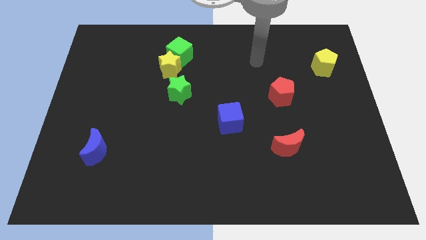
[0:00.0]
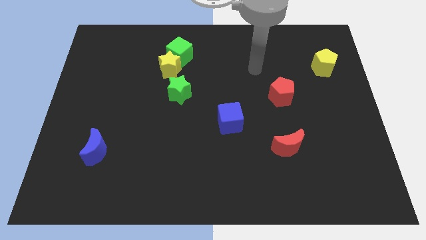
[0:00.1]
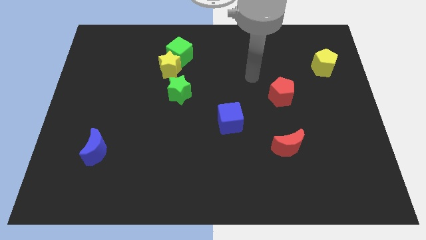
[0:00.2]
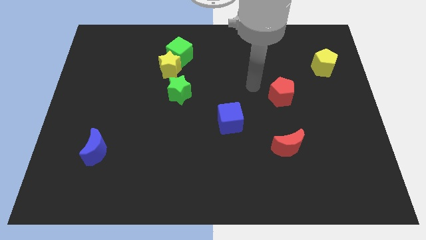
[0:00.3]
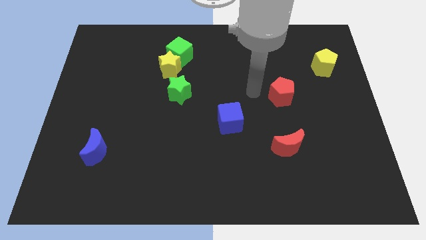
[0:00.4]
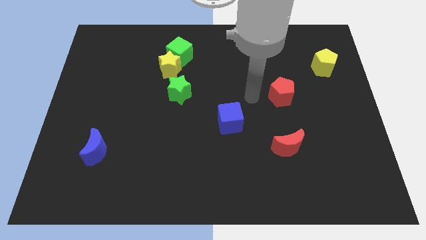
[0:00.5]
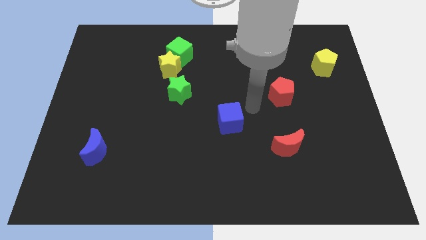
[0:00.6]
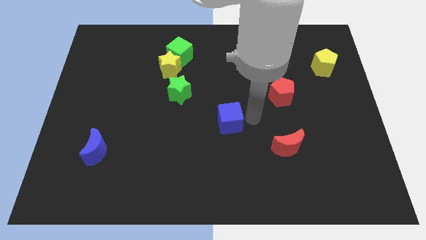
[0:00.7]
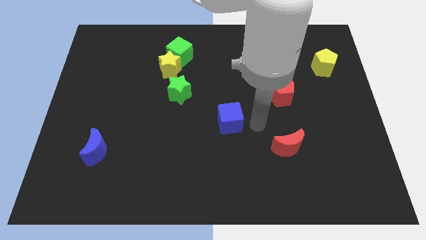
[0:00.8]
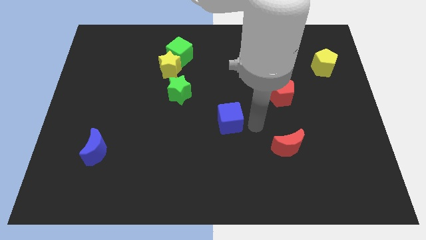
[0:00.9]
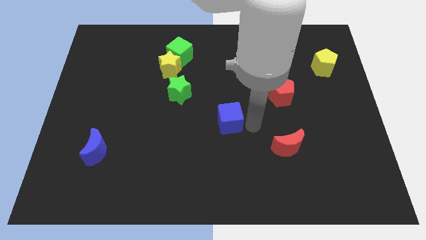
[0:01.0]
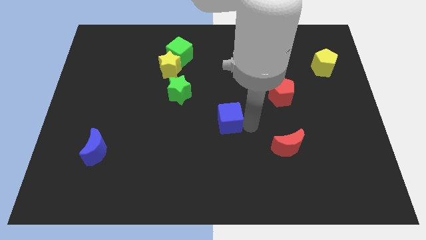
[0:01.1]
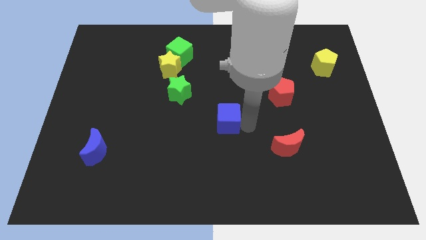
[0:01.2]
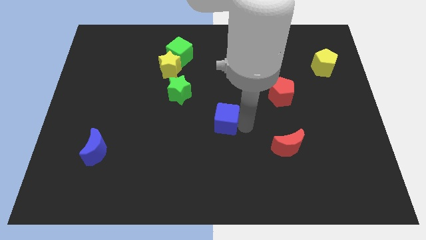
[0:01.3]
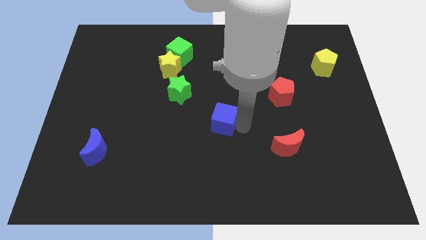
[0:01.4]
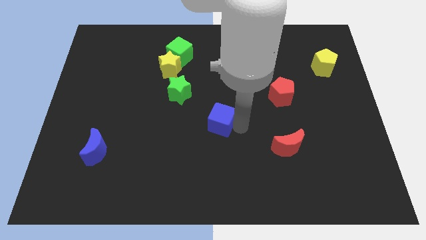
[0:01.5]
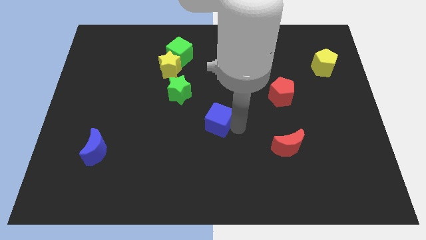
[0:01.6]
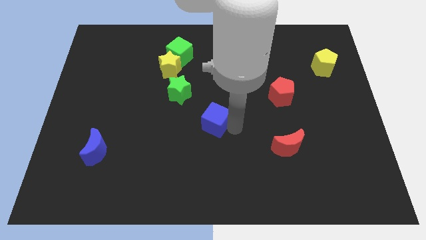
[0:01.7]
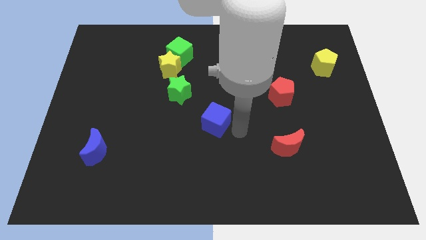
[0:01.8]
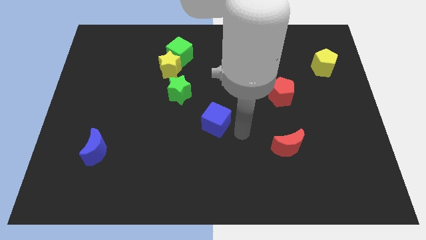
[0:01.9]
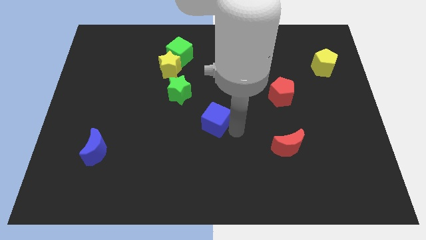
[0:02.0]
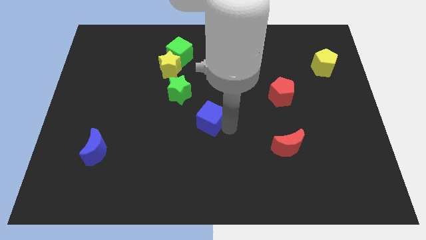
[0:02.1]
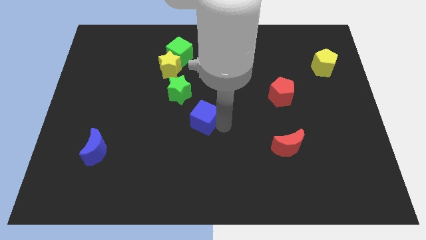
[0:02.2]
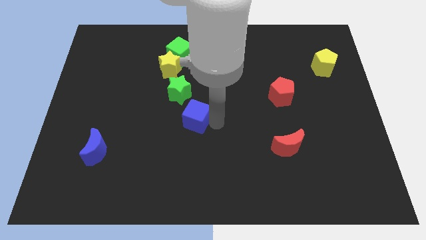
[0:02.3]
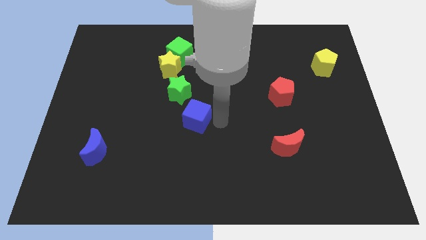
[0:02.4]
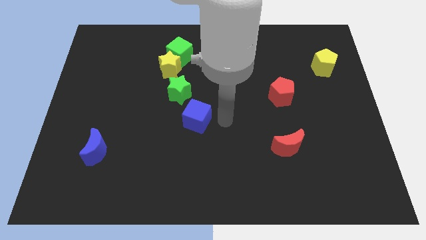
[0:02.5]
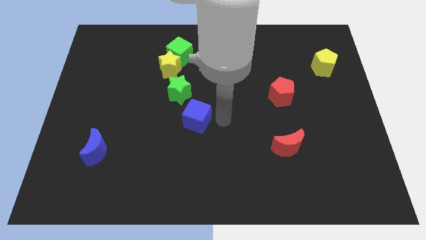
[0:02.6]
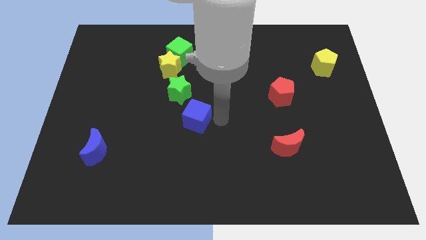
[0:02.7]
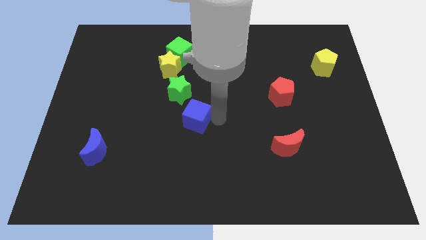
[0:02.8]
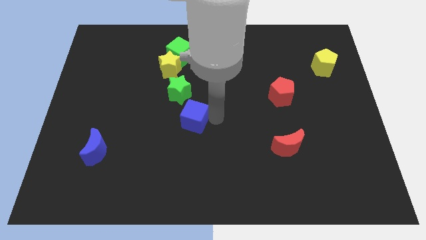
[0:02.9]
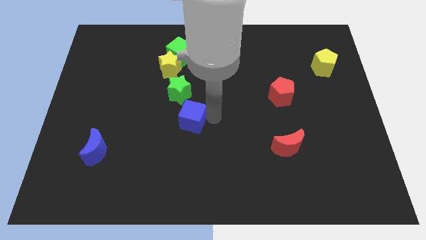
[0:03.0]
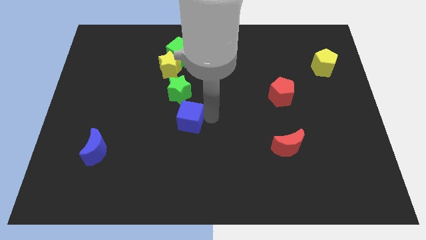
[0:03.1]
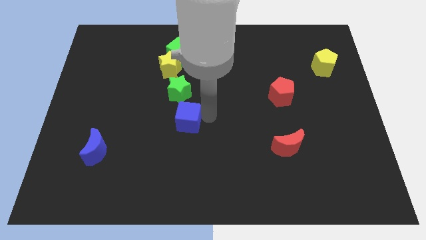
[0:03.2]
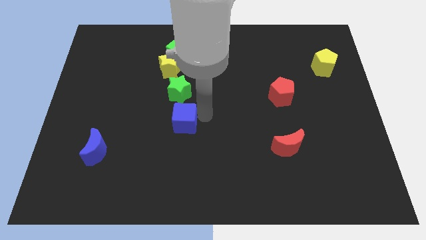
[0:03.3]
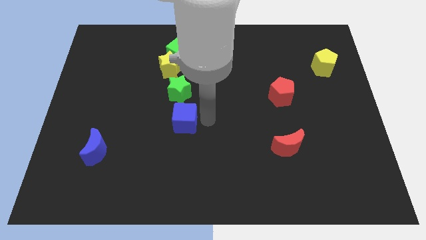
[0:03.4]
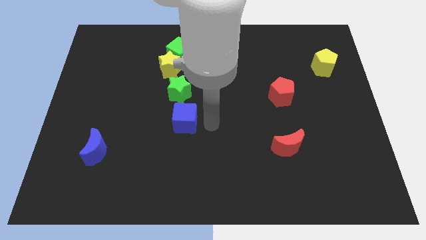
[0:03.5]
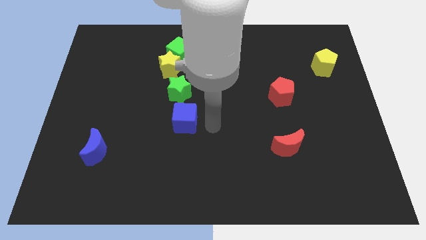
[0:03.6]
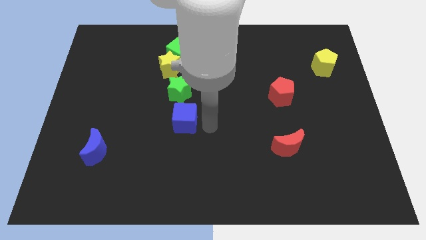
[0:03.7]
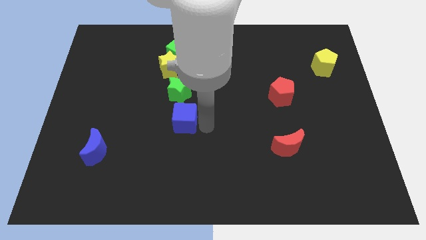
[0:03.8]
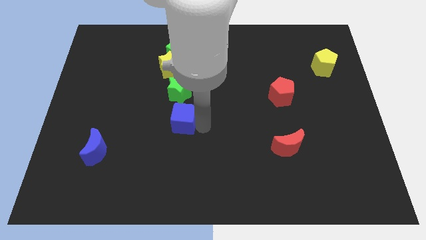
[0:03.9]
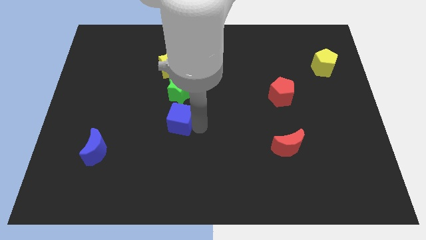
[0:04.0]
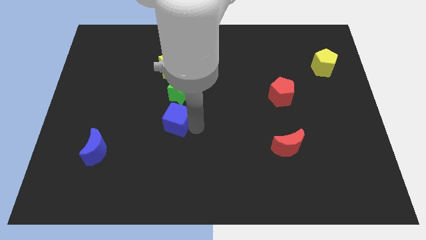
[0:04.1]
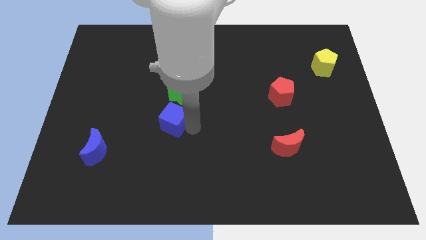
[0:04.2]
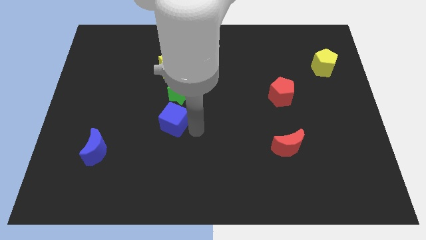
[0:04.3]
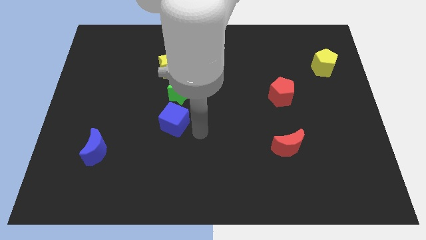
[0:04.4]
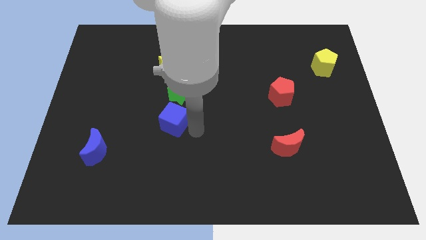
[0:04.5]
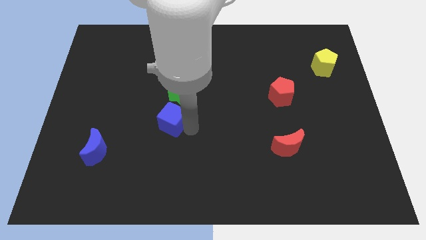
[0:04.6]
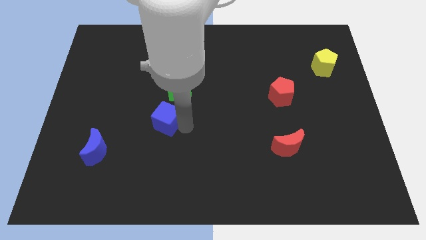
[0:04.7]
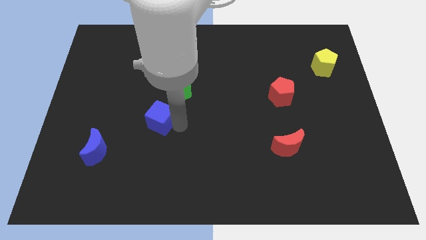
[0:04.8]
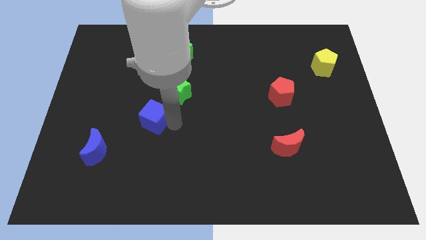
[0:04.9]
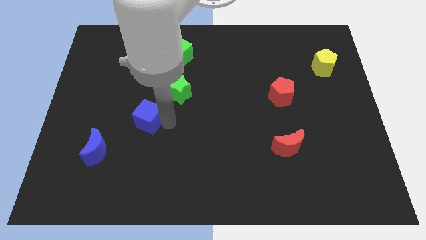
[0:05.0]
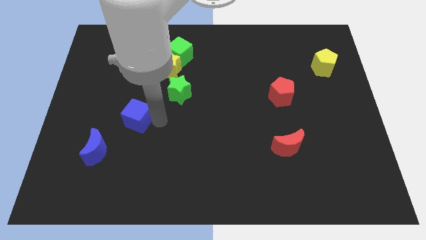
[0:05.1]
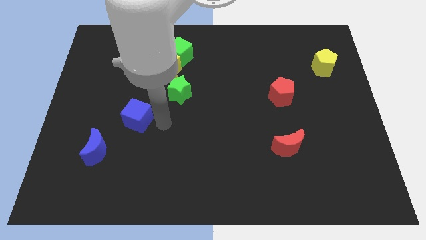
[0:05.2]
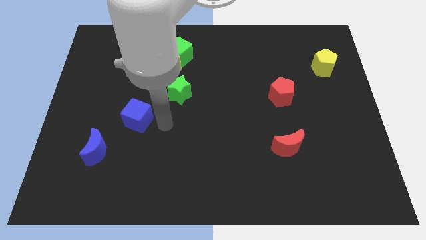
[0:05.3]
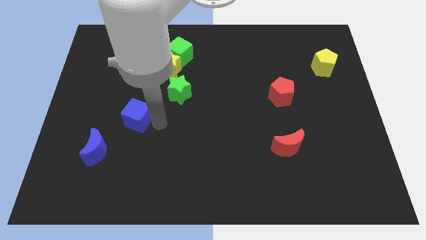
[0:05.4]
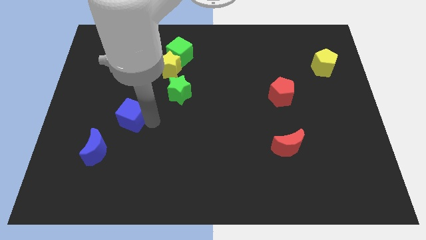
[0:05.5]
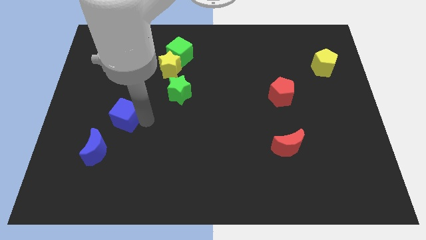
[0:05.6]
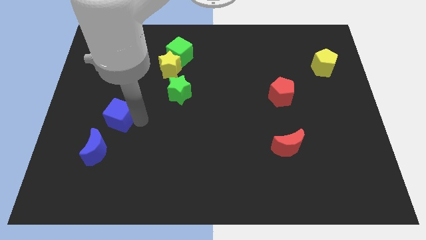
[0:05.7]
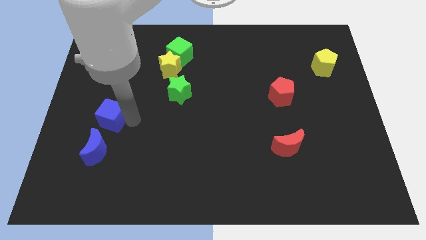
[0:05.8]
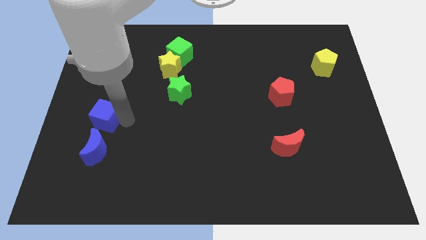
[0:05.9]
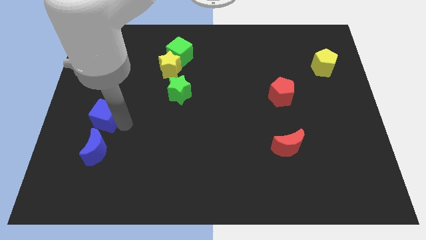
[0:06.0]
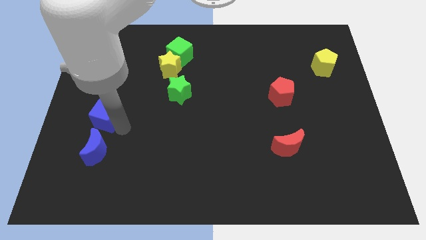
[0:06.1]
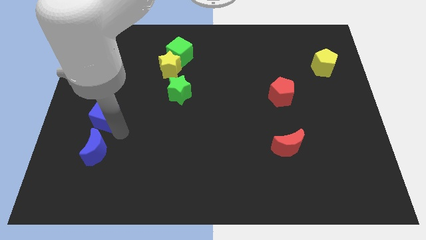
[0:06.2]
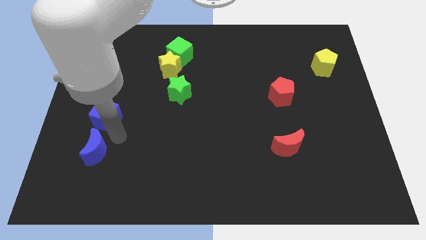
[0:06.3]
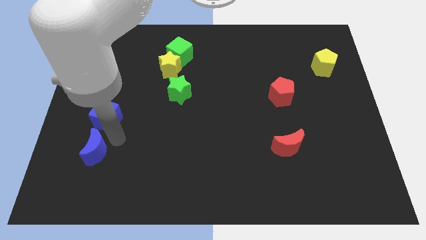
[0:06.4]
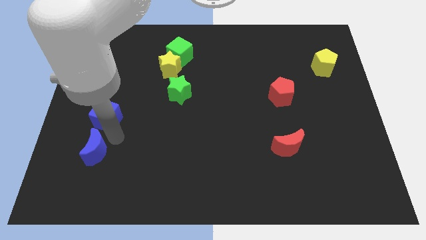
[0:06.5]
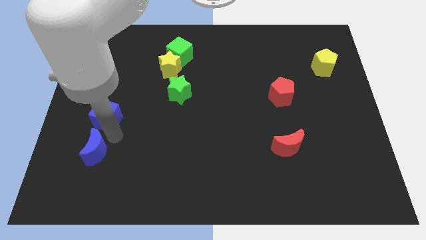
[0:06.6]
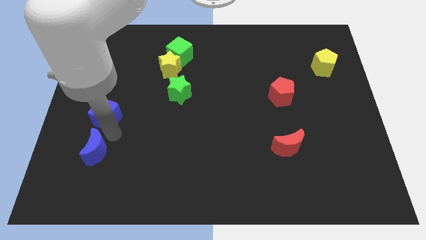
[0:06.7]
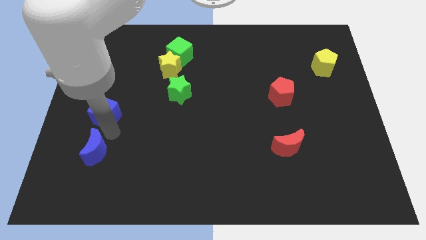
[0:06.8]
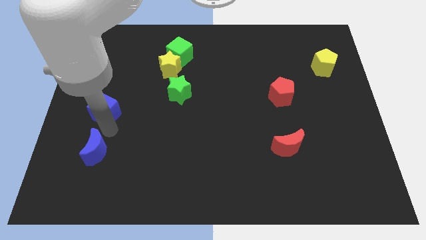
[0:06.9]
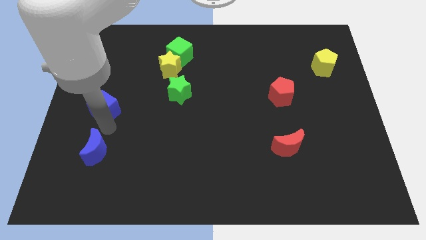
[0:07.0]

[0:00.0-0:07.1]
put the blue cube to the center left

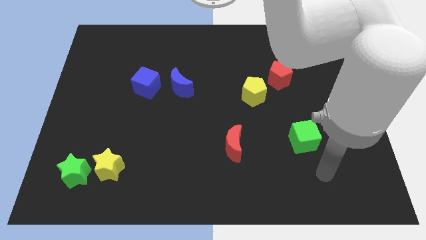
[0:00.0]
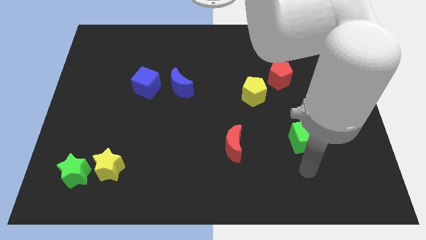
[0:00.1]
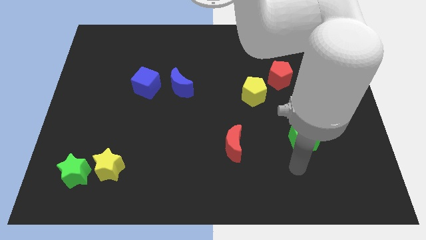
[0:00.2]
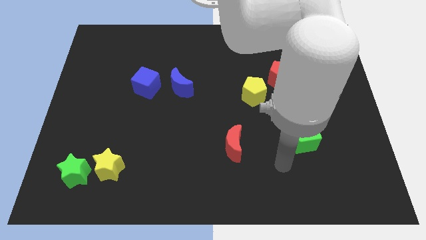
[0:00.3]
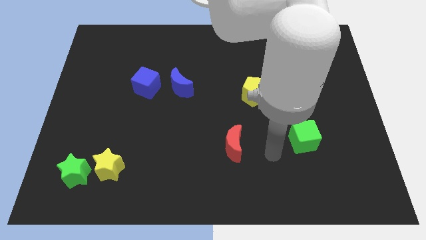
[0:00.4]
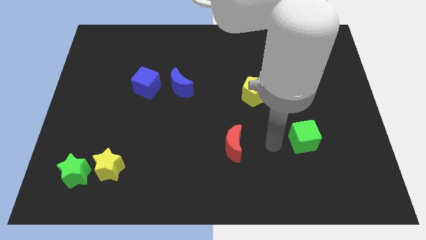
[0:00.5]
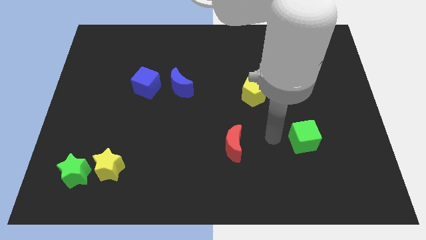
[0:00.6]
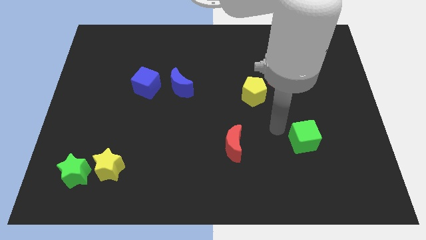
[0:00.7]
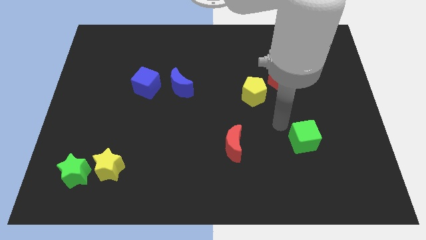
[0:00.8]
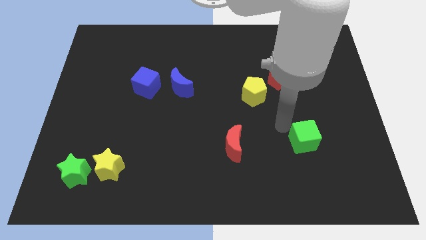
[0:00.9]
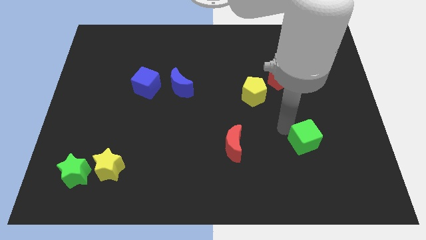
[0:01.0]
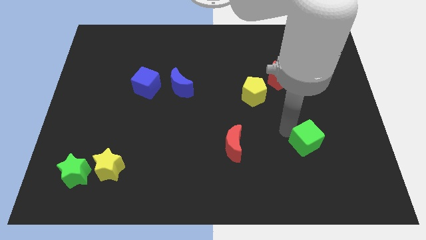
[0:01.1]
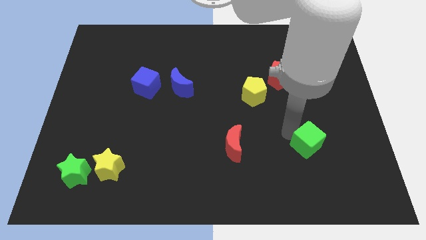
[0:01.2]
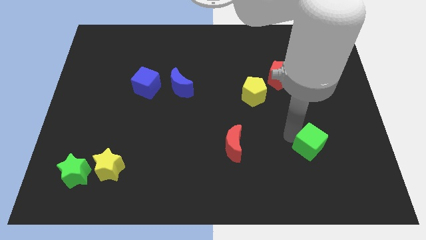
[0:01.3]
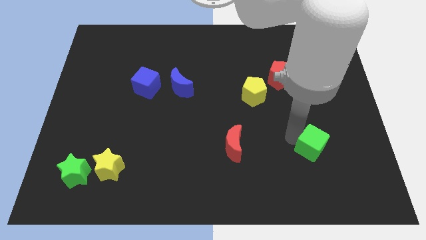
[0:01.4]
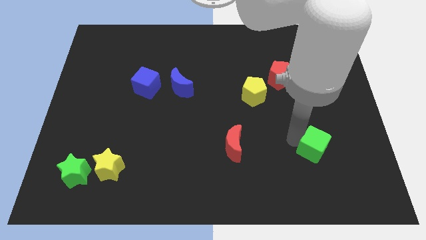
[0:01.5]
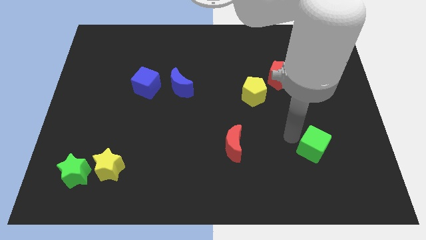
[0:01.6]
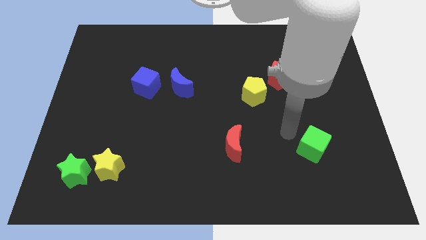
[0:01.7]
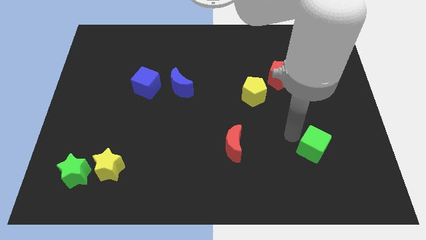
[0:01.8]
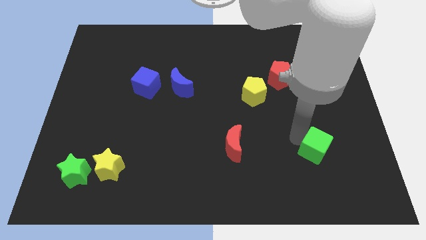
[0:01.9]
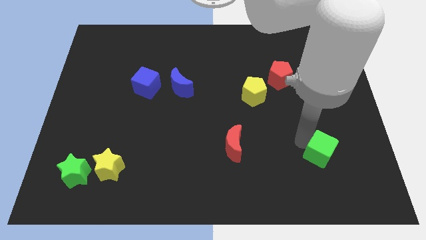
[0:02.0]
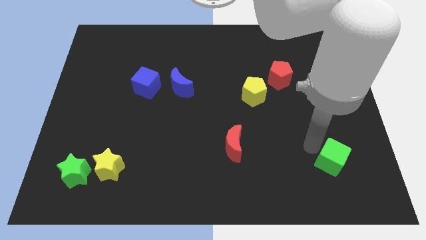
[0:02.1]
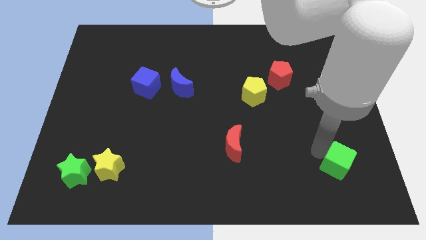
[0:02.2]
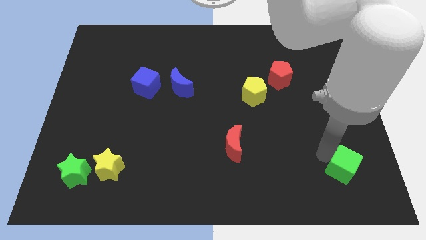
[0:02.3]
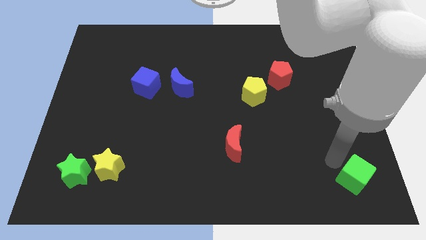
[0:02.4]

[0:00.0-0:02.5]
put the green cube to the bottom right of the board
